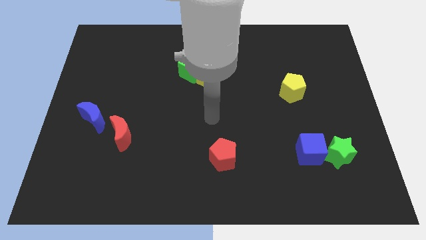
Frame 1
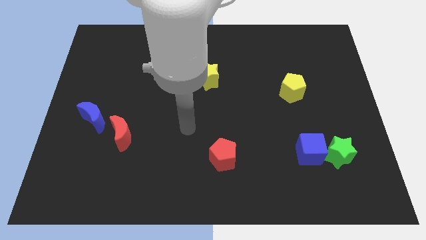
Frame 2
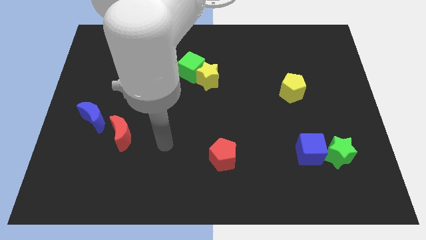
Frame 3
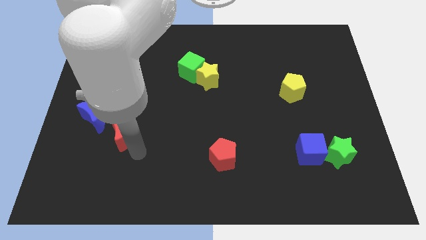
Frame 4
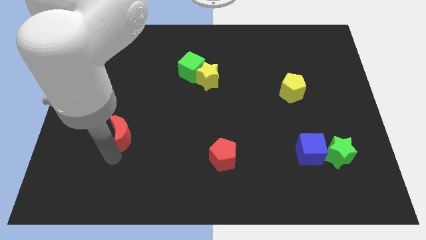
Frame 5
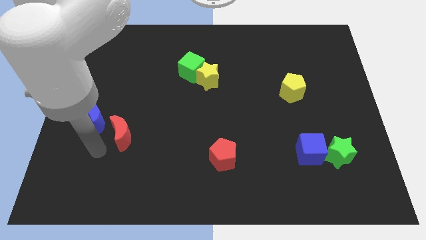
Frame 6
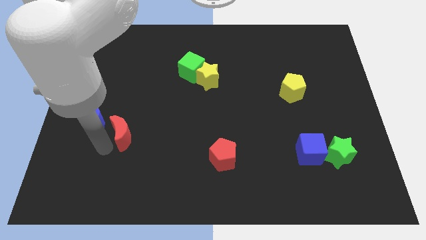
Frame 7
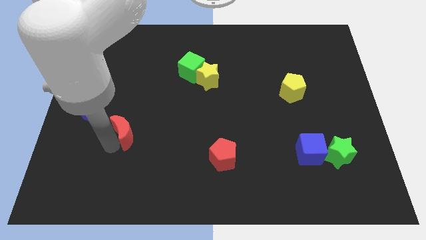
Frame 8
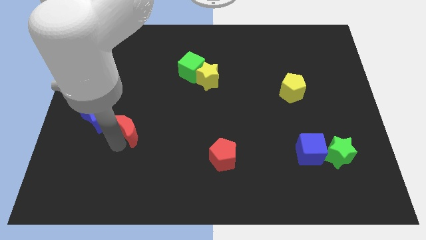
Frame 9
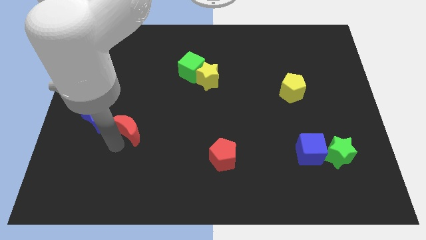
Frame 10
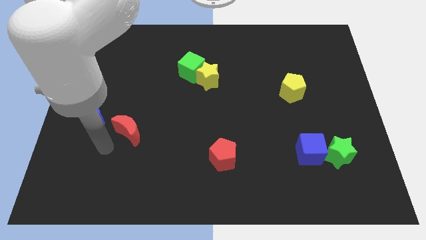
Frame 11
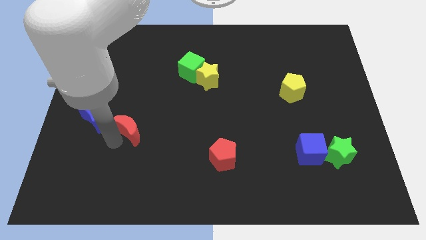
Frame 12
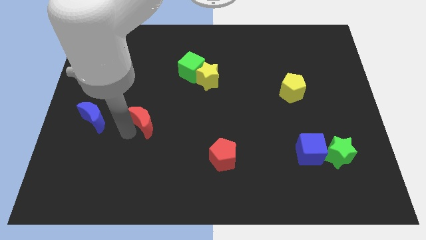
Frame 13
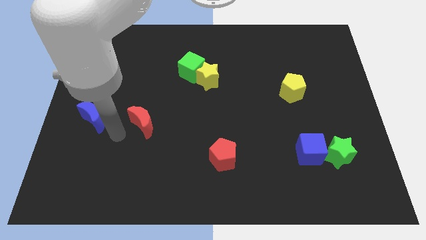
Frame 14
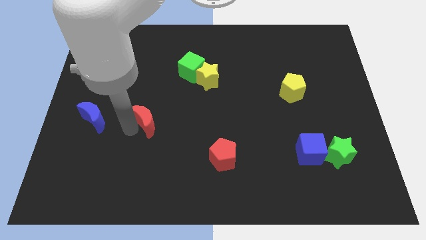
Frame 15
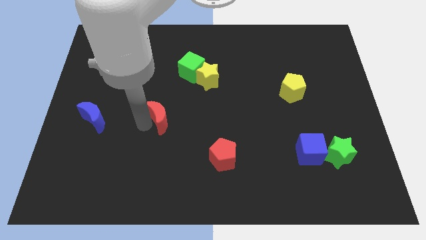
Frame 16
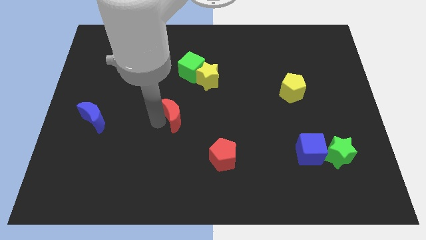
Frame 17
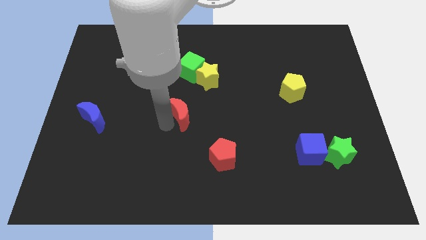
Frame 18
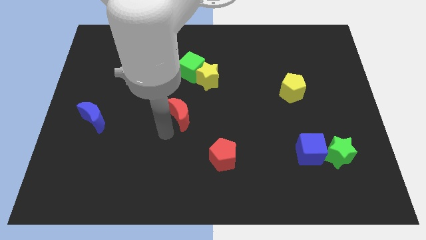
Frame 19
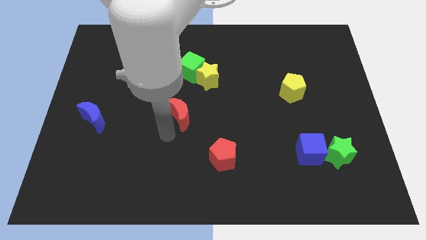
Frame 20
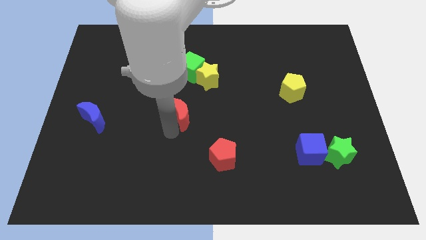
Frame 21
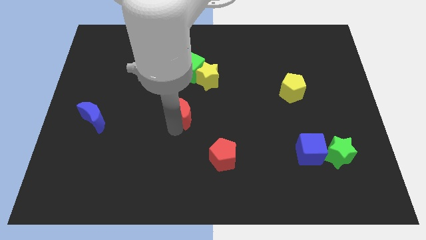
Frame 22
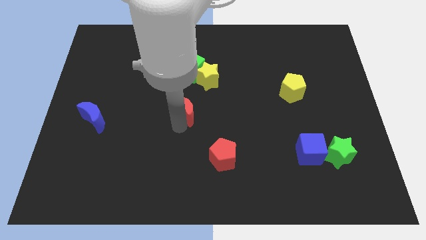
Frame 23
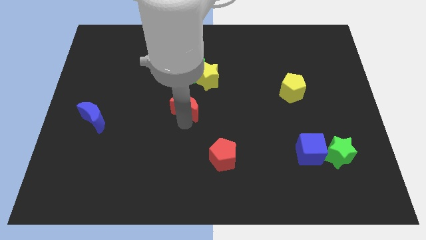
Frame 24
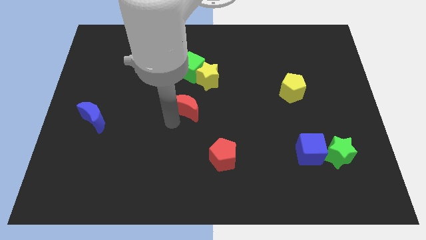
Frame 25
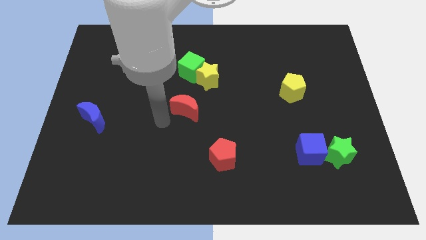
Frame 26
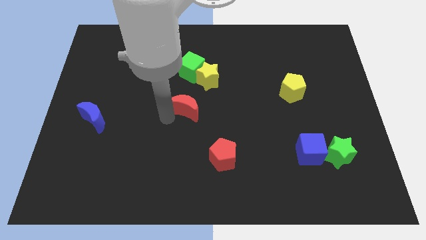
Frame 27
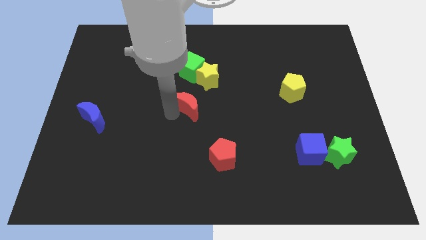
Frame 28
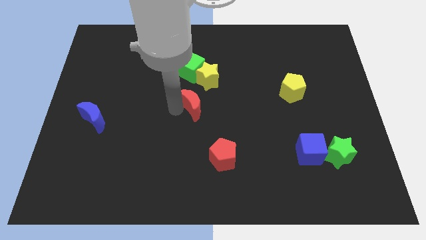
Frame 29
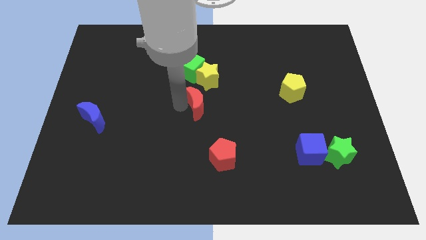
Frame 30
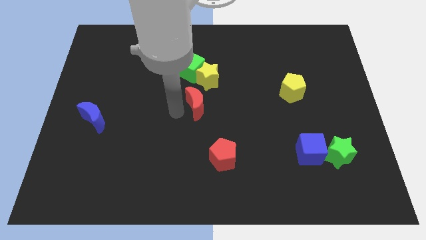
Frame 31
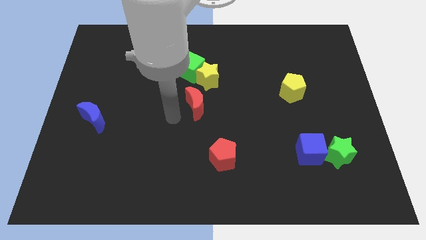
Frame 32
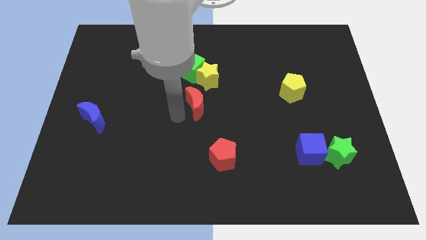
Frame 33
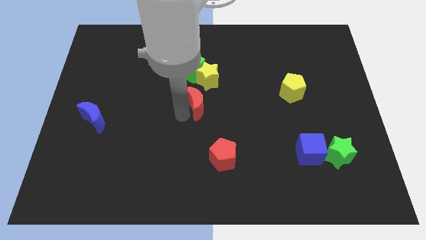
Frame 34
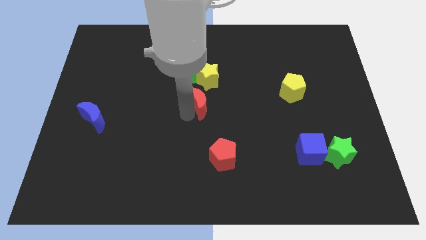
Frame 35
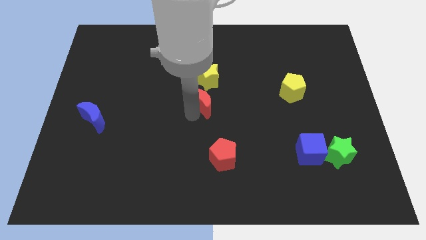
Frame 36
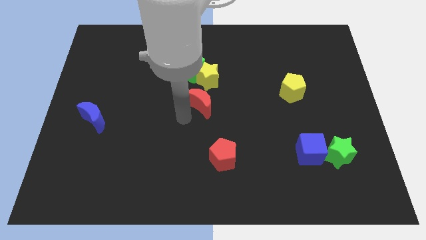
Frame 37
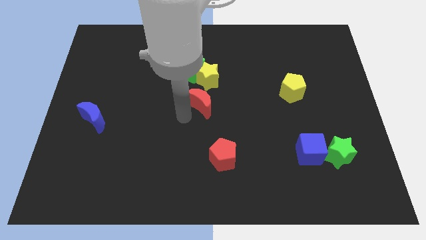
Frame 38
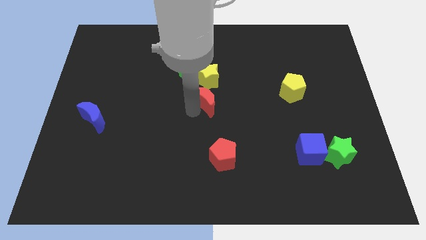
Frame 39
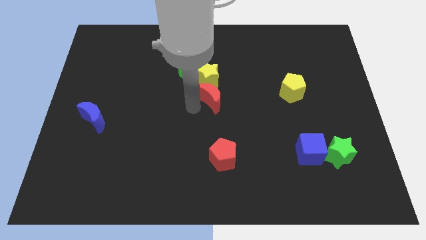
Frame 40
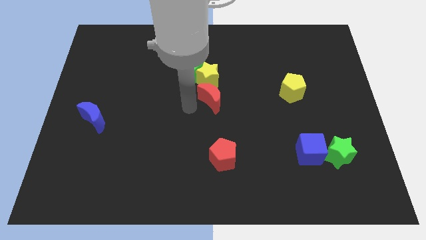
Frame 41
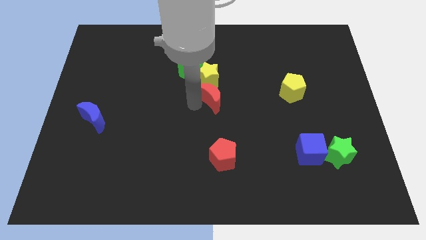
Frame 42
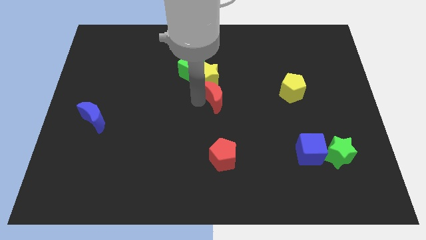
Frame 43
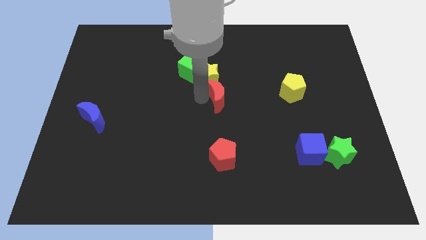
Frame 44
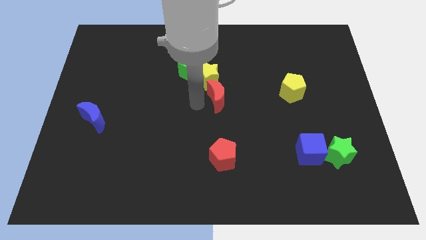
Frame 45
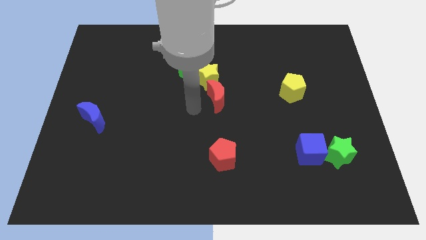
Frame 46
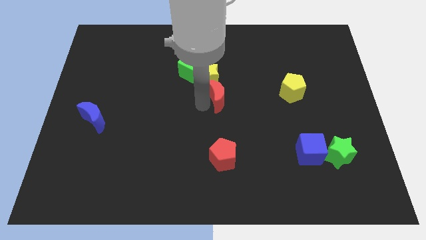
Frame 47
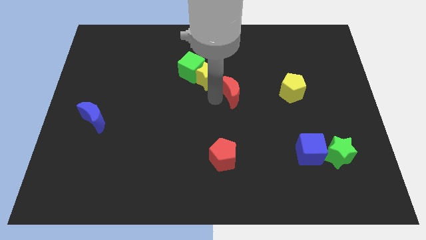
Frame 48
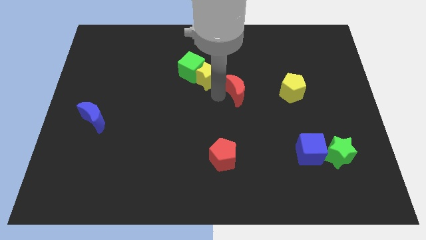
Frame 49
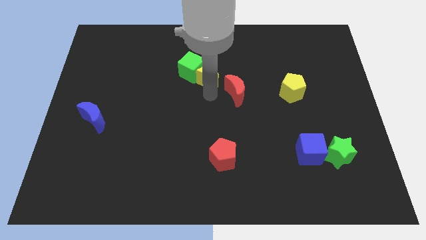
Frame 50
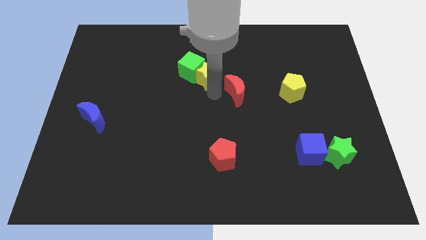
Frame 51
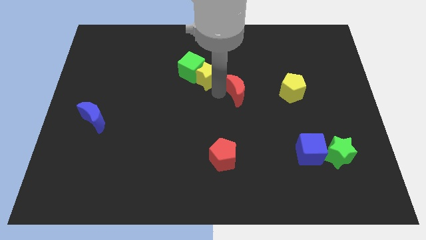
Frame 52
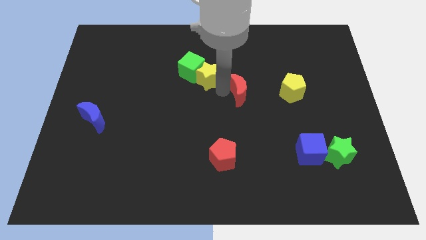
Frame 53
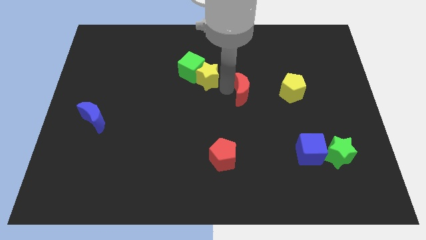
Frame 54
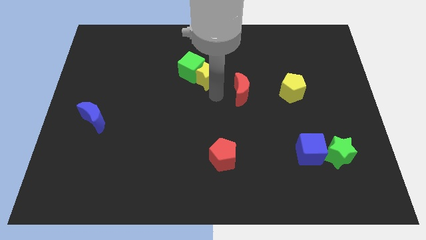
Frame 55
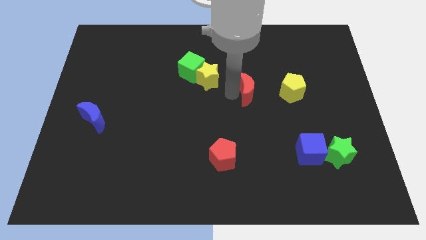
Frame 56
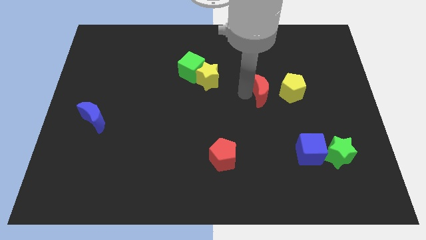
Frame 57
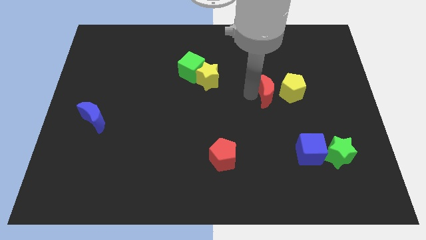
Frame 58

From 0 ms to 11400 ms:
push the red moon towards the yellow pentagon

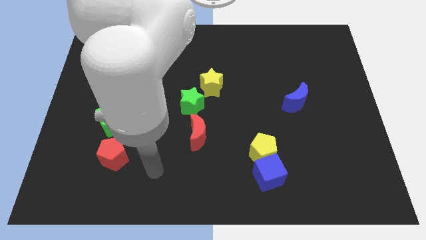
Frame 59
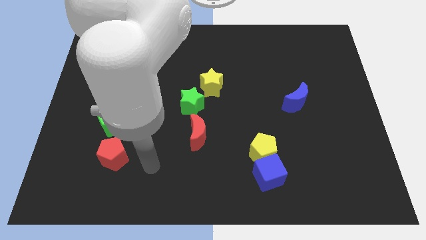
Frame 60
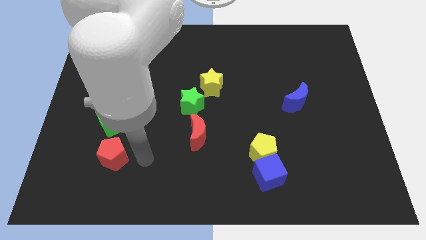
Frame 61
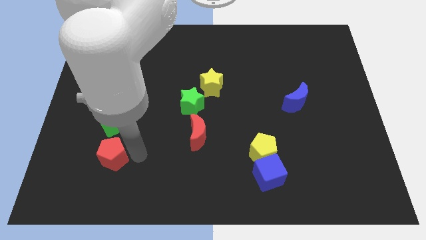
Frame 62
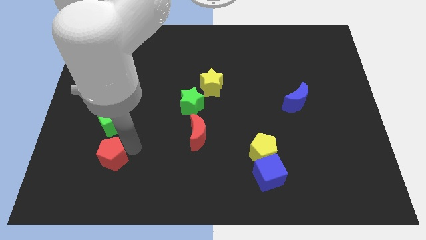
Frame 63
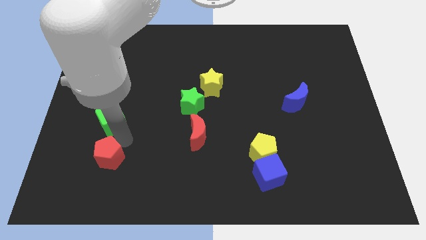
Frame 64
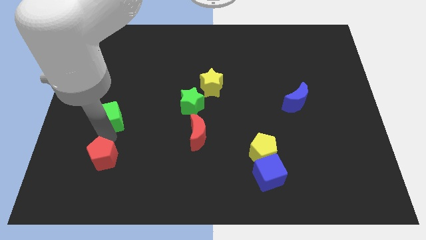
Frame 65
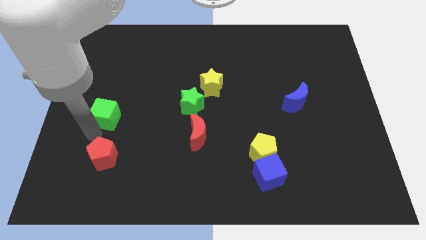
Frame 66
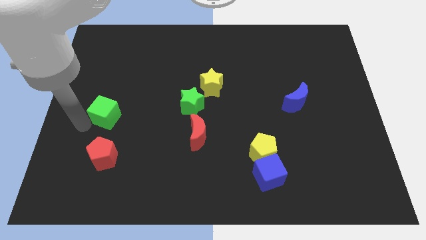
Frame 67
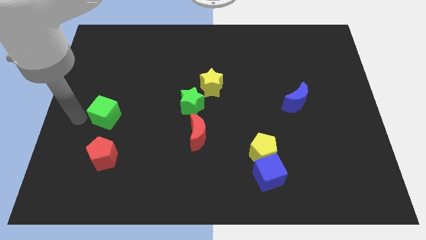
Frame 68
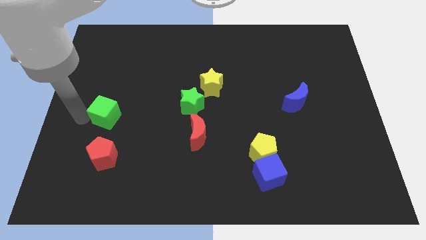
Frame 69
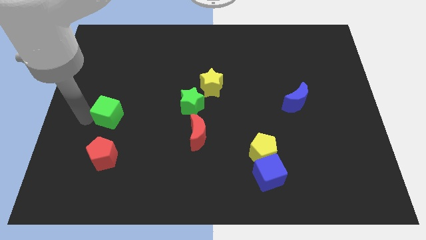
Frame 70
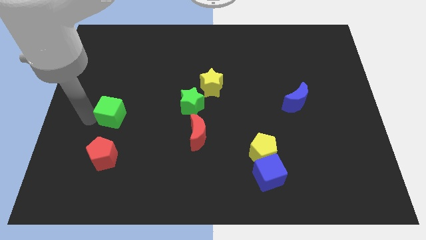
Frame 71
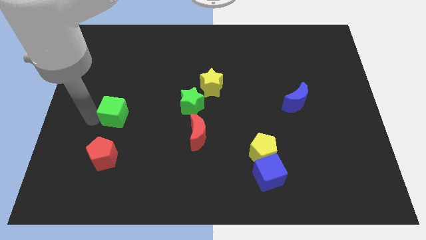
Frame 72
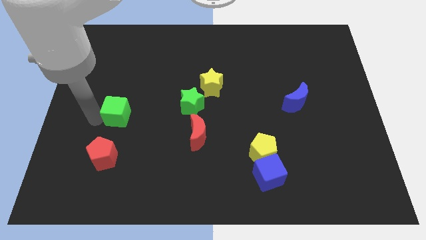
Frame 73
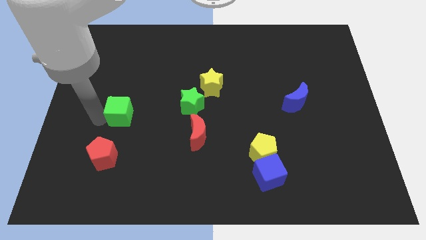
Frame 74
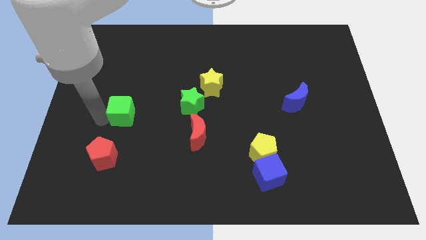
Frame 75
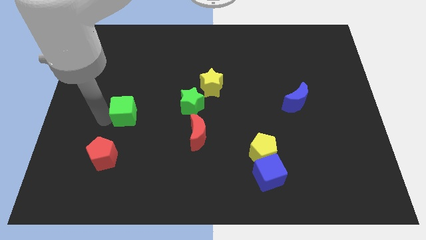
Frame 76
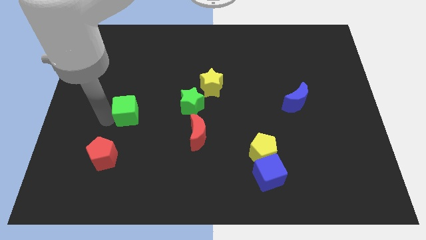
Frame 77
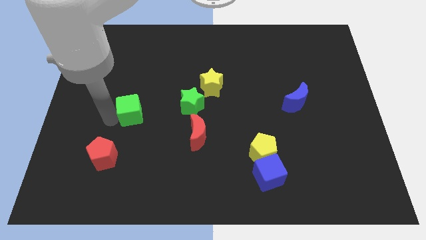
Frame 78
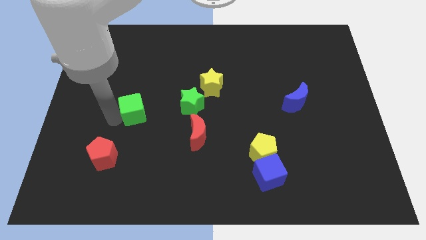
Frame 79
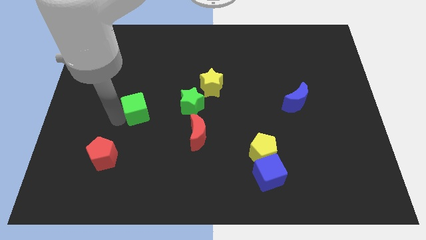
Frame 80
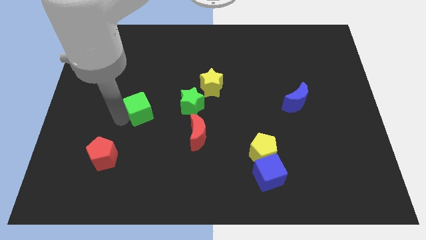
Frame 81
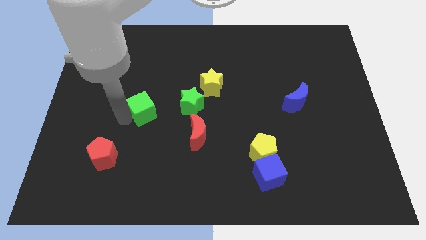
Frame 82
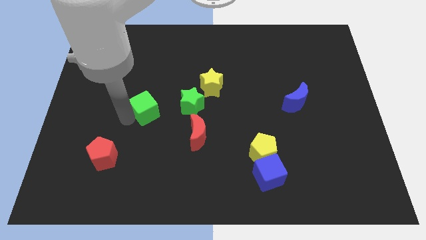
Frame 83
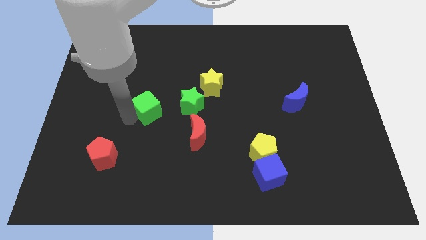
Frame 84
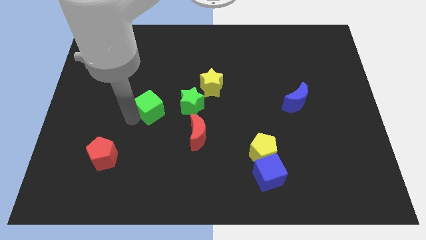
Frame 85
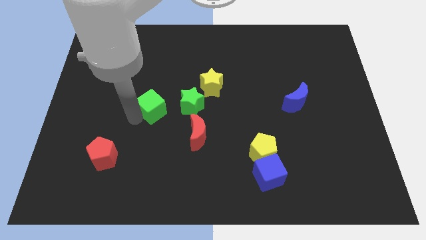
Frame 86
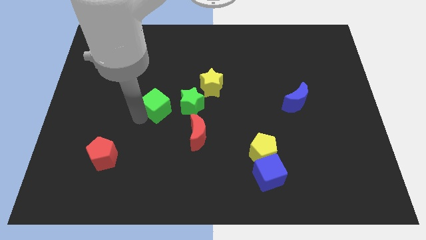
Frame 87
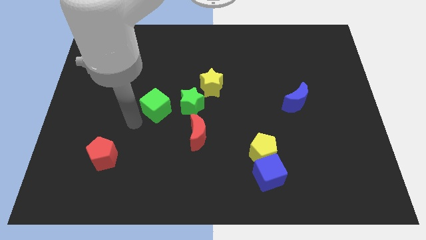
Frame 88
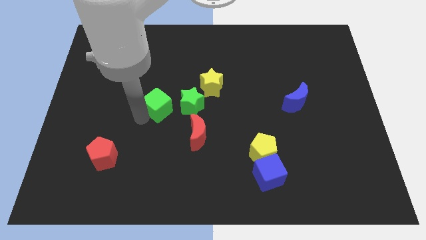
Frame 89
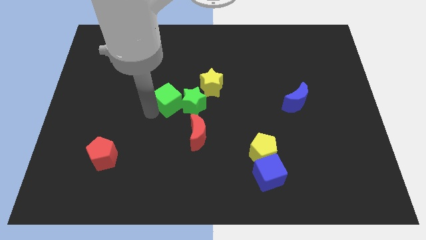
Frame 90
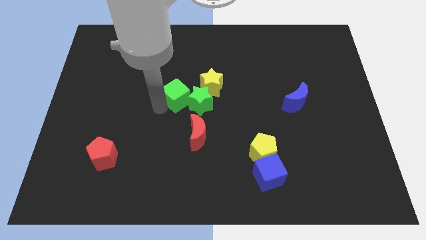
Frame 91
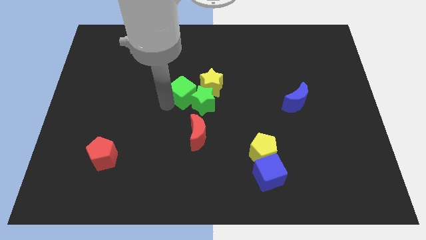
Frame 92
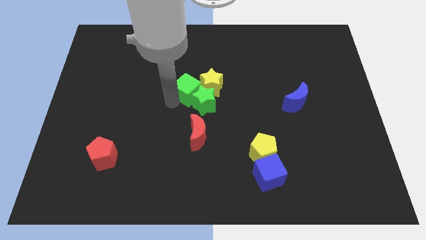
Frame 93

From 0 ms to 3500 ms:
put the green cube towards the yellow star
